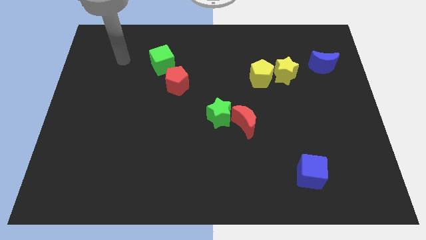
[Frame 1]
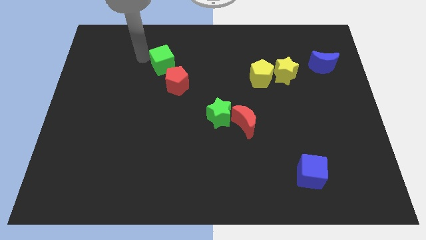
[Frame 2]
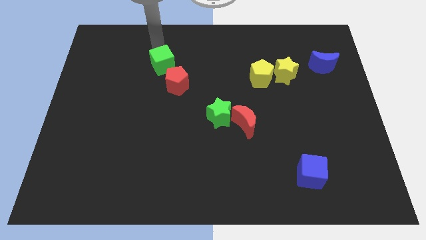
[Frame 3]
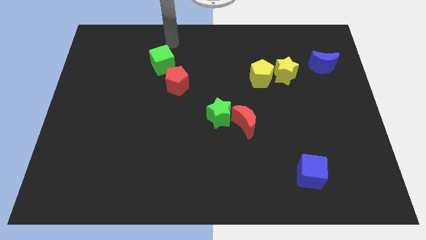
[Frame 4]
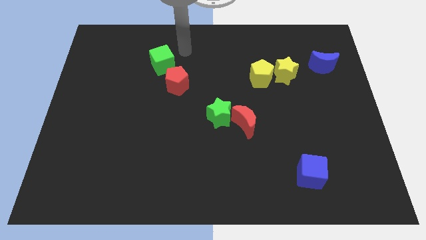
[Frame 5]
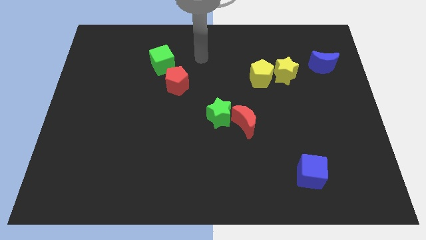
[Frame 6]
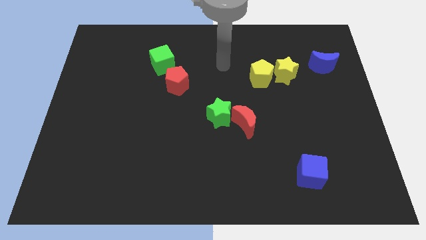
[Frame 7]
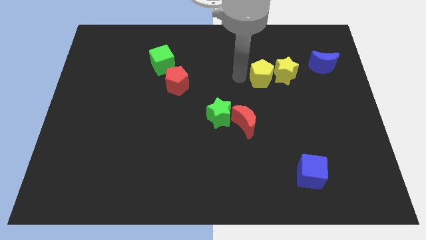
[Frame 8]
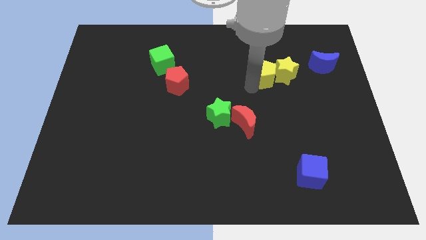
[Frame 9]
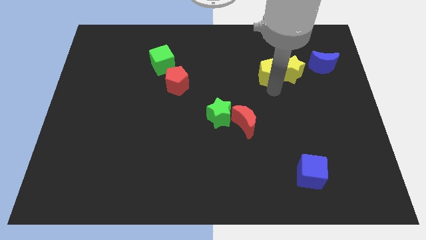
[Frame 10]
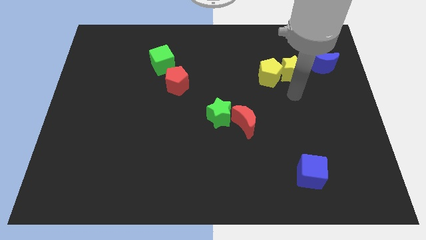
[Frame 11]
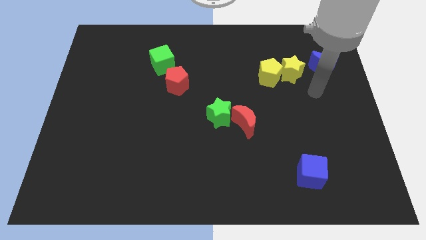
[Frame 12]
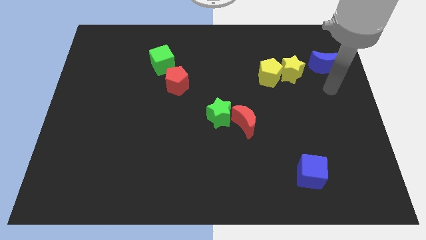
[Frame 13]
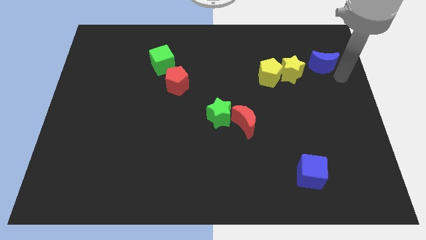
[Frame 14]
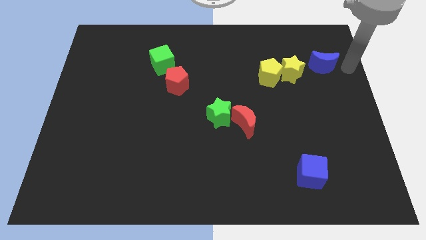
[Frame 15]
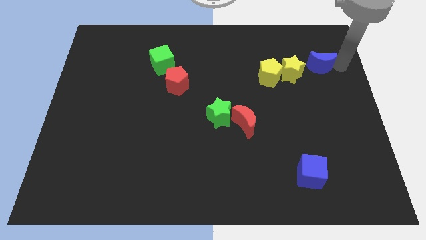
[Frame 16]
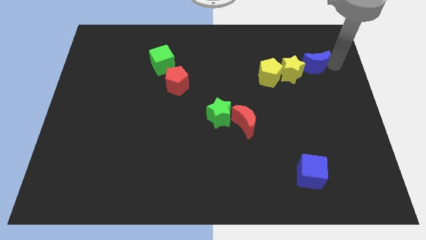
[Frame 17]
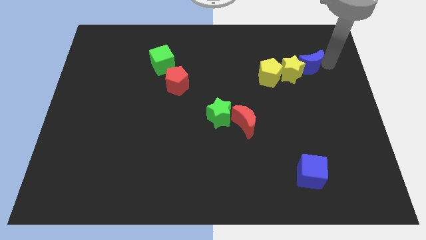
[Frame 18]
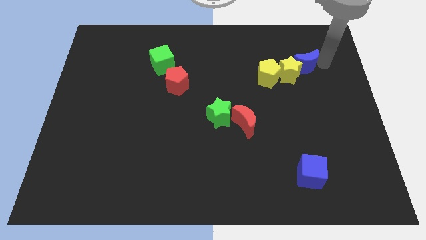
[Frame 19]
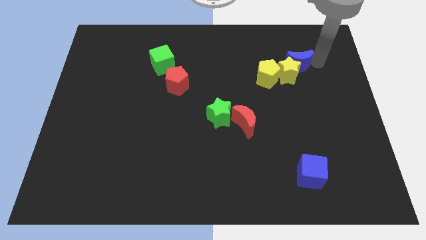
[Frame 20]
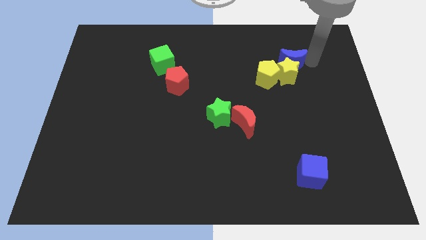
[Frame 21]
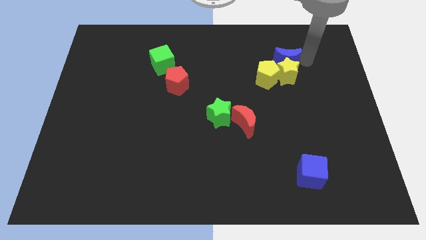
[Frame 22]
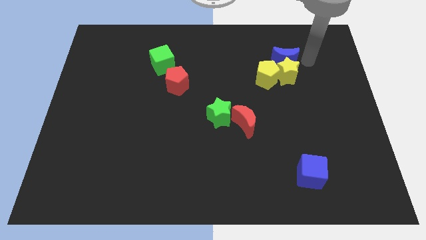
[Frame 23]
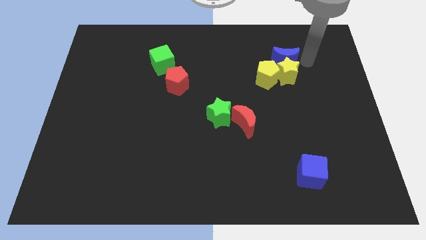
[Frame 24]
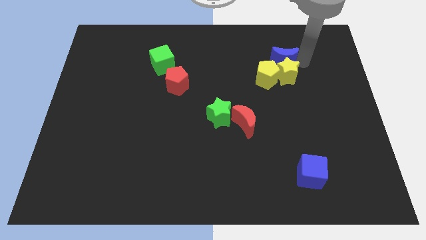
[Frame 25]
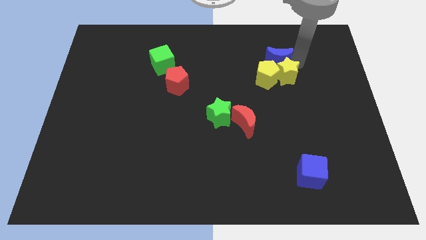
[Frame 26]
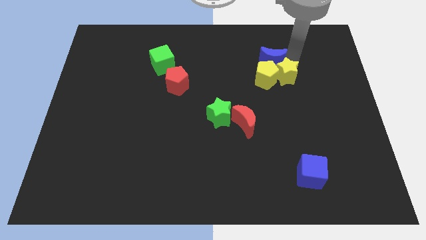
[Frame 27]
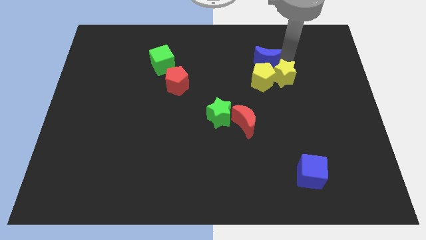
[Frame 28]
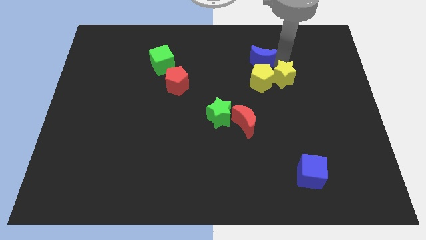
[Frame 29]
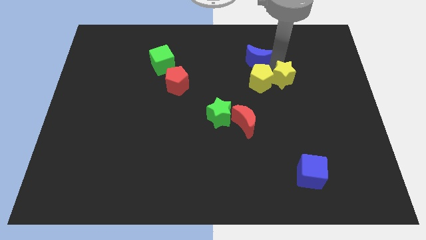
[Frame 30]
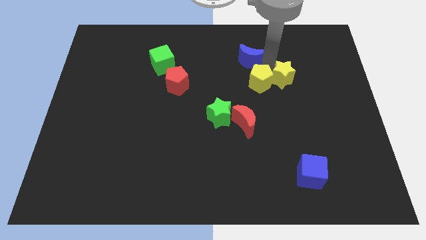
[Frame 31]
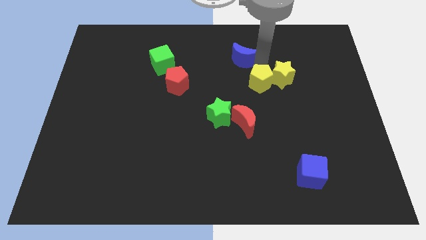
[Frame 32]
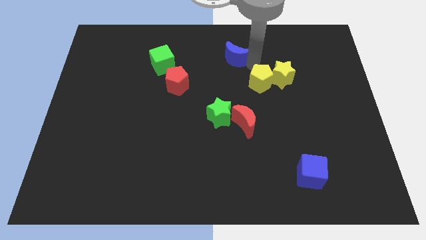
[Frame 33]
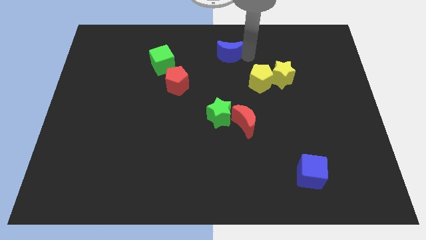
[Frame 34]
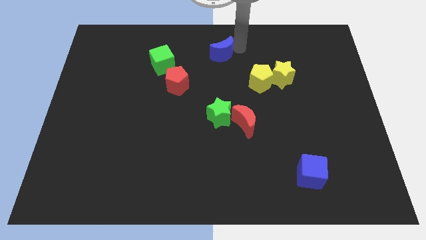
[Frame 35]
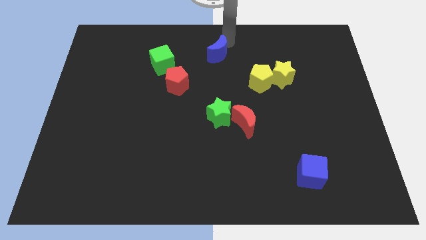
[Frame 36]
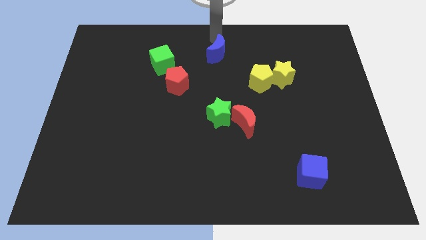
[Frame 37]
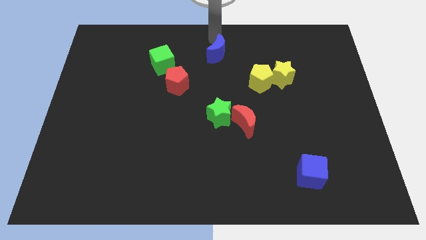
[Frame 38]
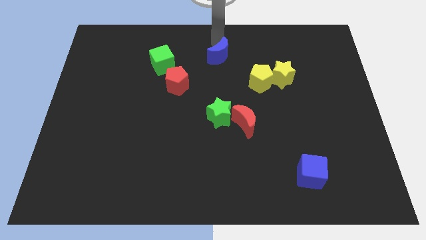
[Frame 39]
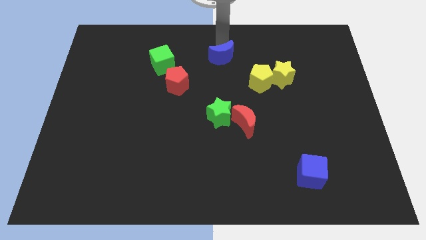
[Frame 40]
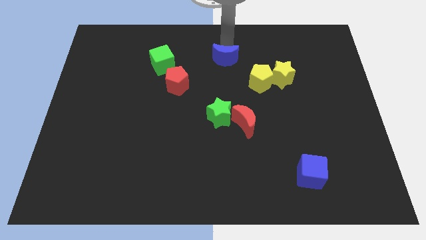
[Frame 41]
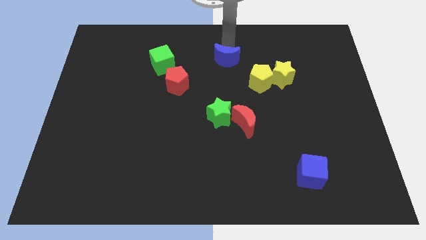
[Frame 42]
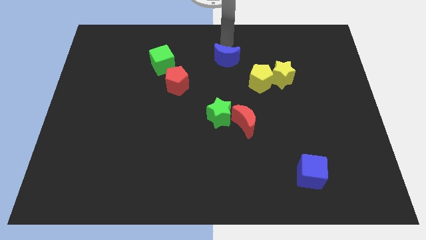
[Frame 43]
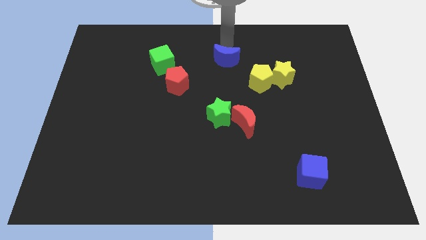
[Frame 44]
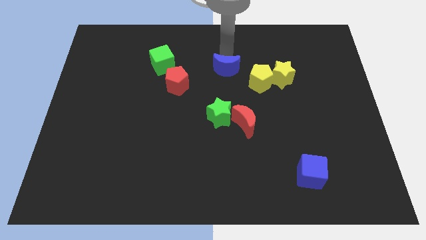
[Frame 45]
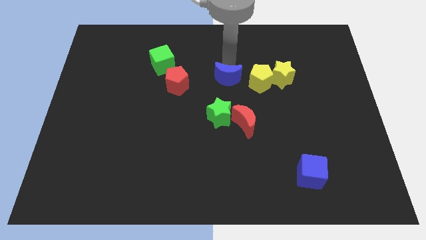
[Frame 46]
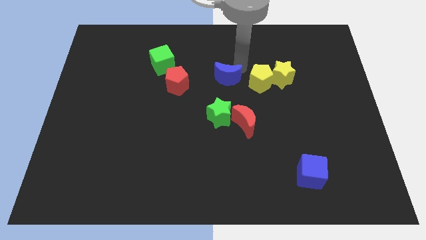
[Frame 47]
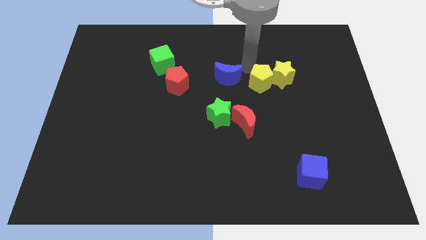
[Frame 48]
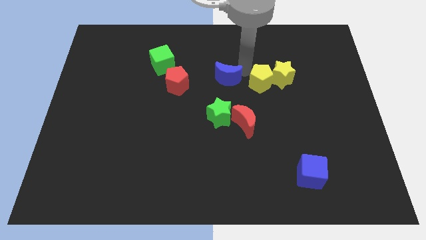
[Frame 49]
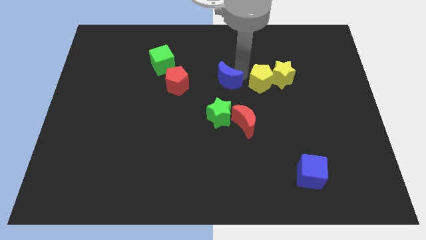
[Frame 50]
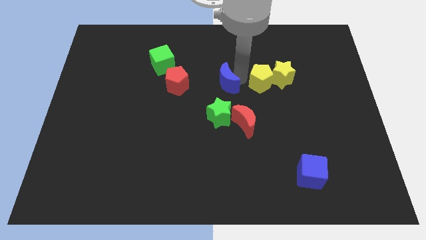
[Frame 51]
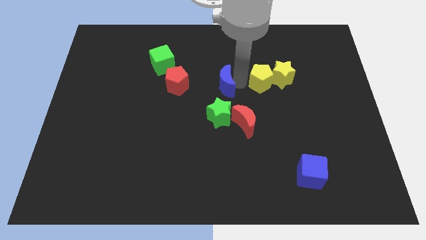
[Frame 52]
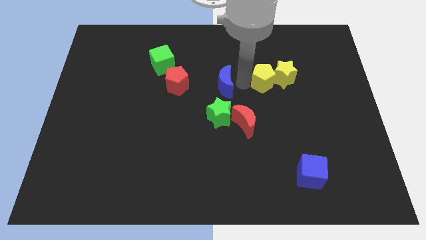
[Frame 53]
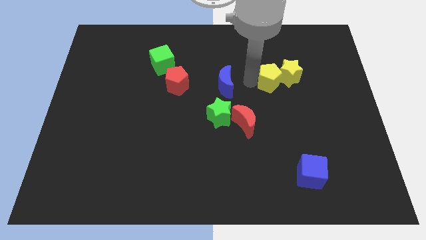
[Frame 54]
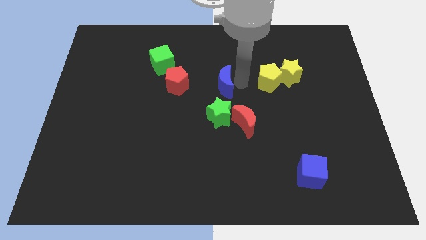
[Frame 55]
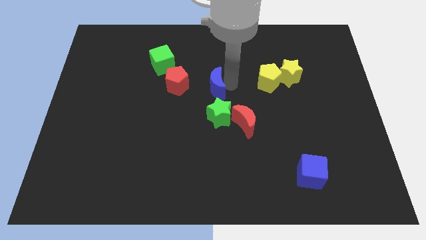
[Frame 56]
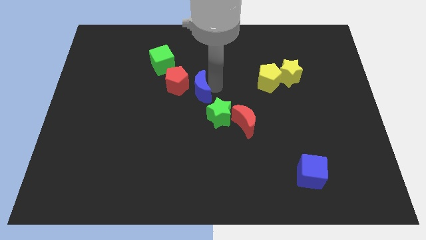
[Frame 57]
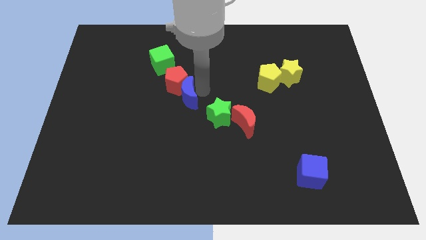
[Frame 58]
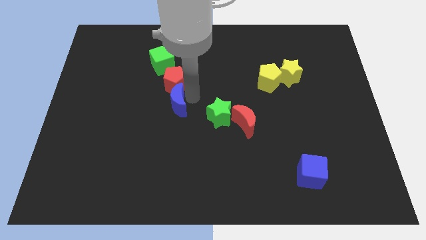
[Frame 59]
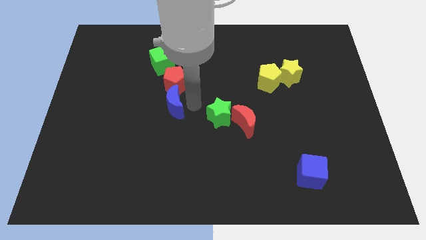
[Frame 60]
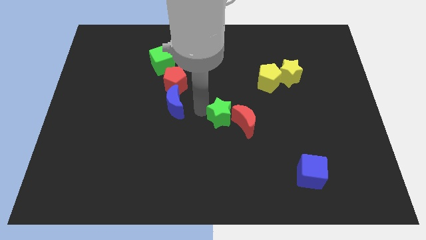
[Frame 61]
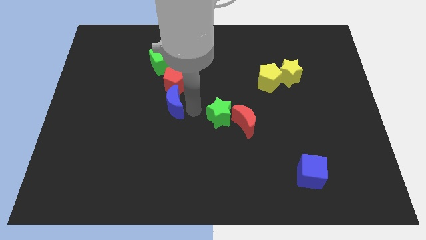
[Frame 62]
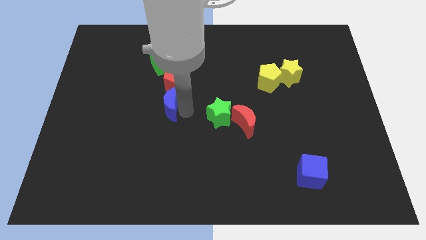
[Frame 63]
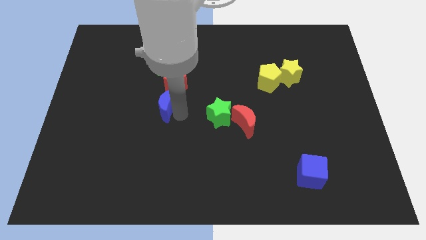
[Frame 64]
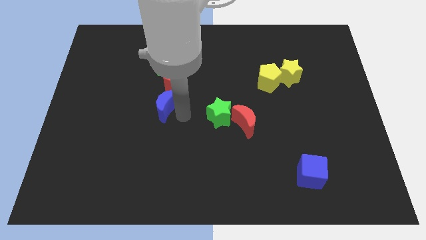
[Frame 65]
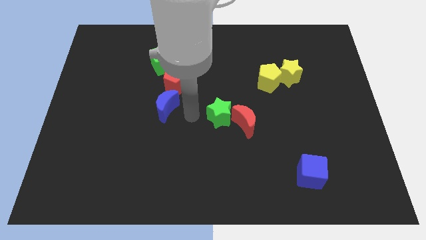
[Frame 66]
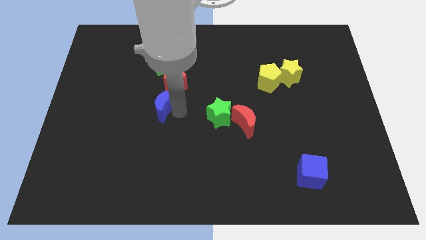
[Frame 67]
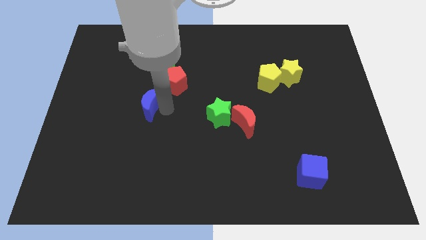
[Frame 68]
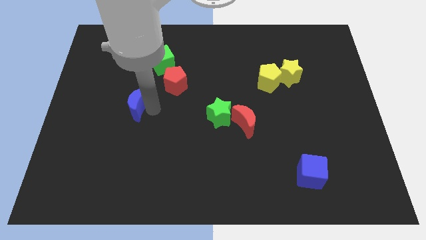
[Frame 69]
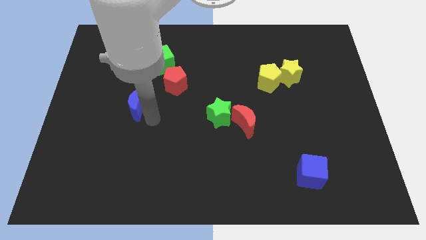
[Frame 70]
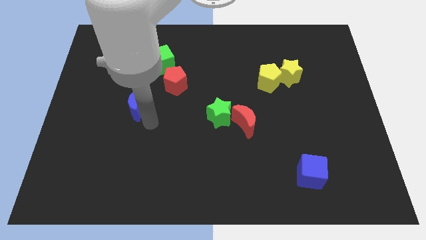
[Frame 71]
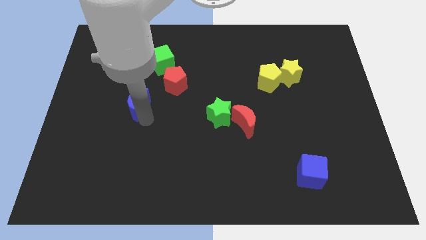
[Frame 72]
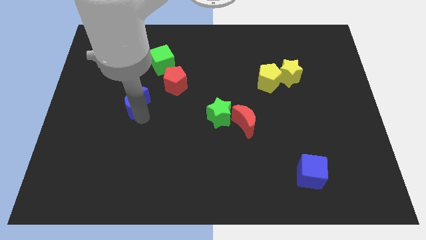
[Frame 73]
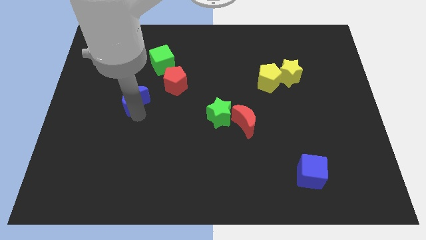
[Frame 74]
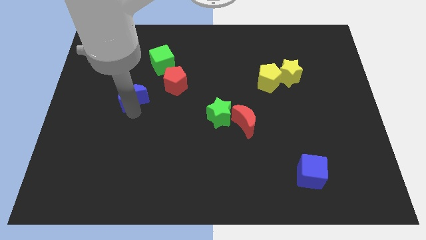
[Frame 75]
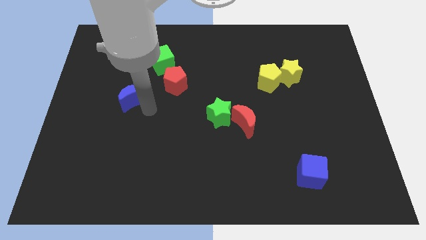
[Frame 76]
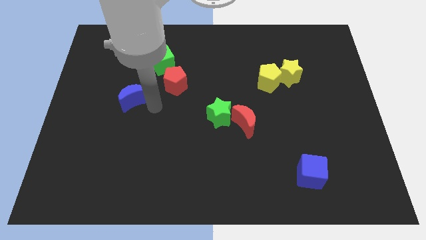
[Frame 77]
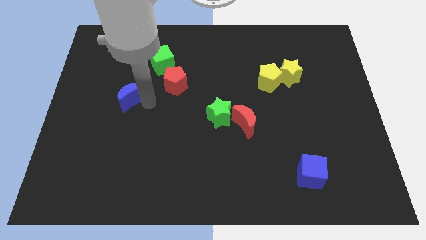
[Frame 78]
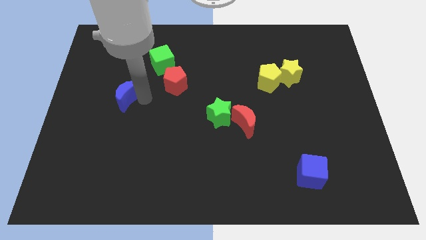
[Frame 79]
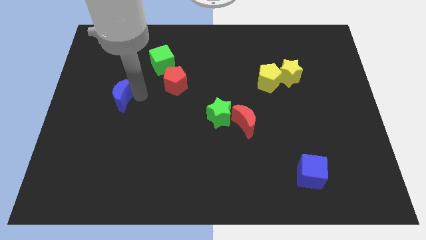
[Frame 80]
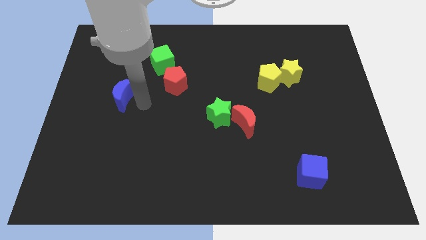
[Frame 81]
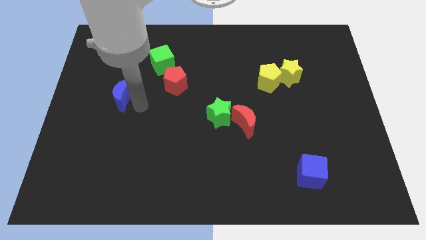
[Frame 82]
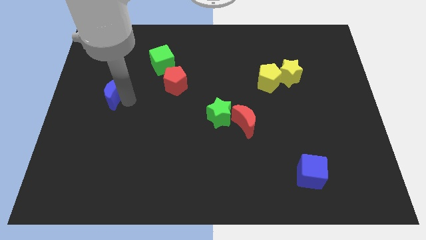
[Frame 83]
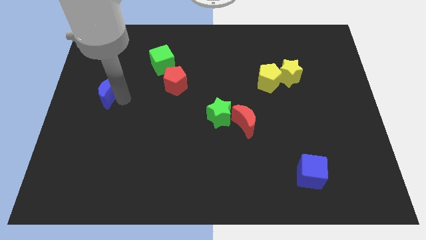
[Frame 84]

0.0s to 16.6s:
slide the blue moon to the left side of the board
